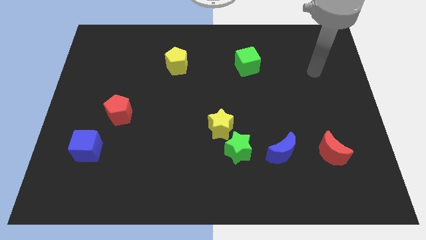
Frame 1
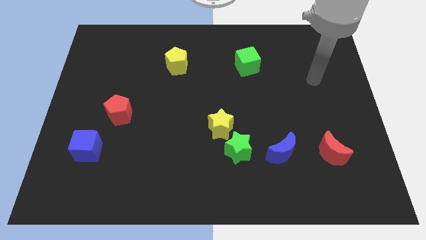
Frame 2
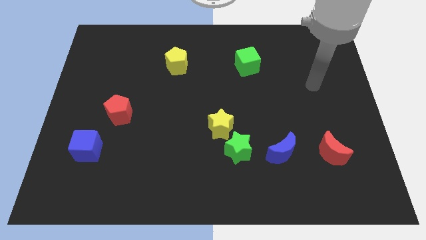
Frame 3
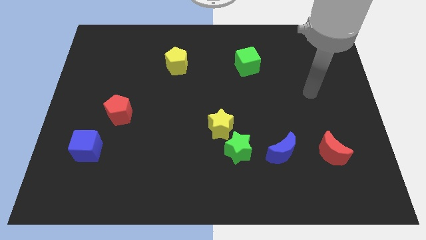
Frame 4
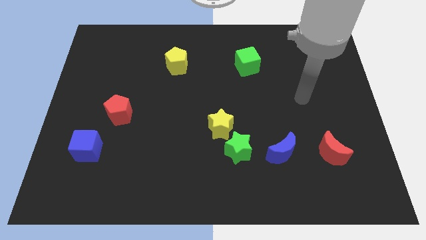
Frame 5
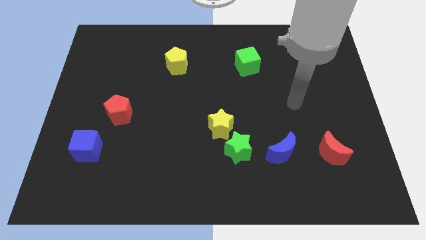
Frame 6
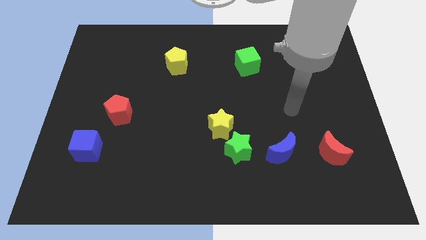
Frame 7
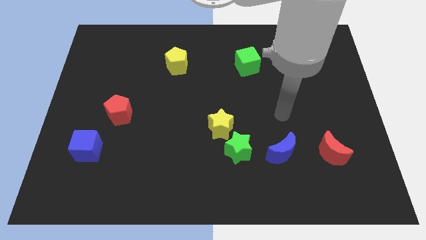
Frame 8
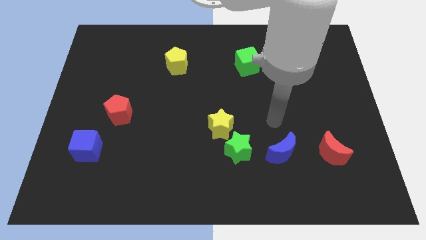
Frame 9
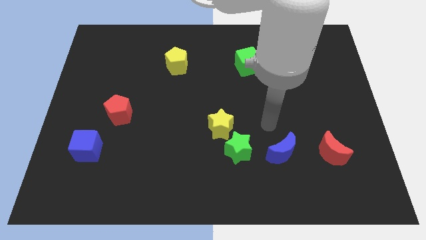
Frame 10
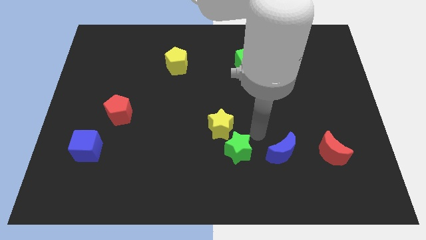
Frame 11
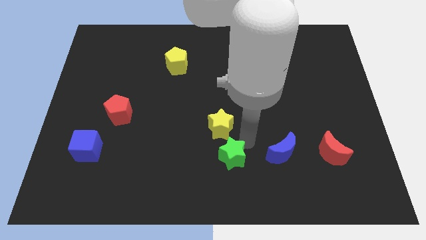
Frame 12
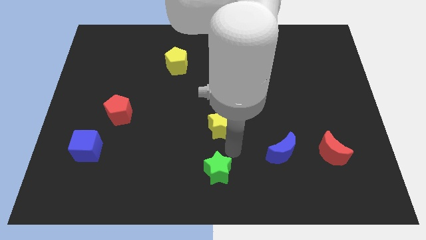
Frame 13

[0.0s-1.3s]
pull the yellow star apart from the green star

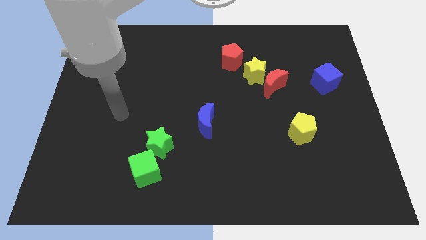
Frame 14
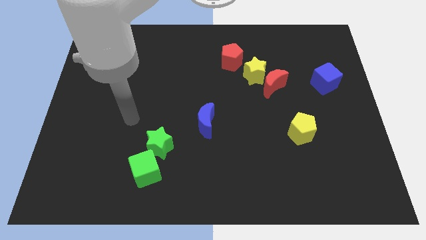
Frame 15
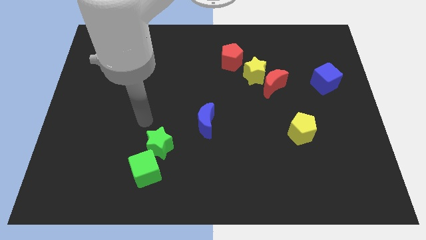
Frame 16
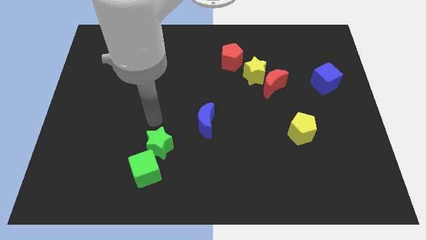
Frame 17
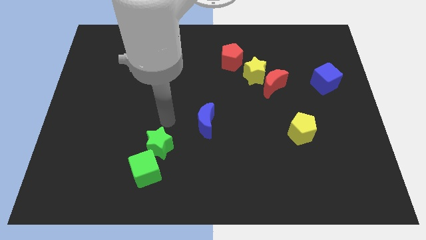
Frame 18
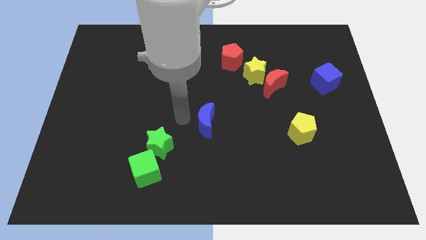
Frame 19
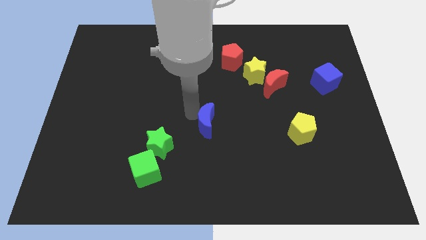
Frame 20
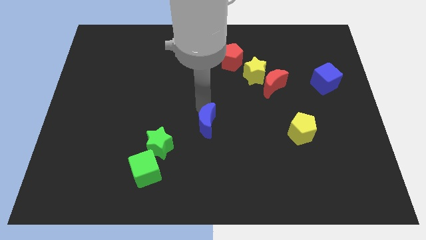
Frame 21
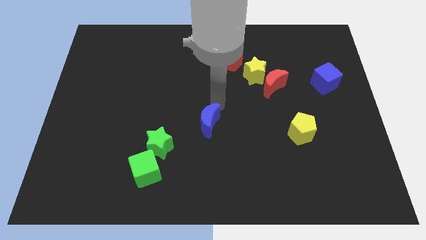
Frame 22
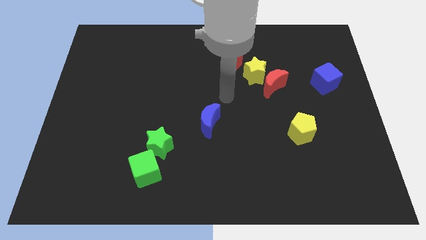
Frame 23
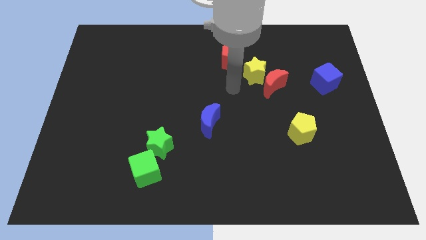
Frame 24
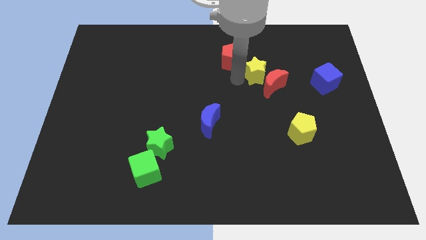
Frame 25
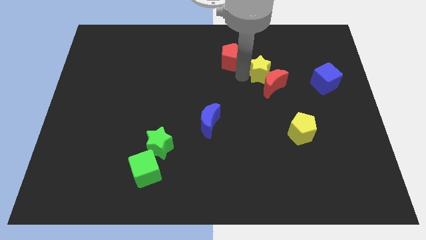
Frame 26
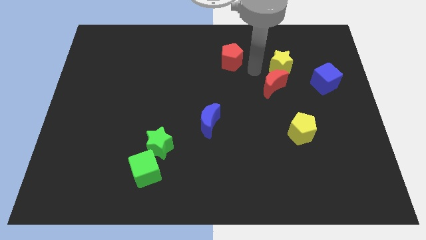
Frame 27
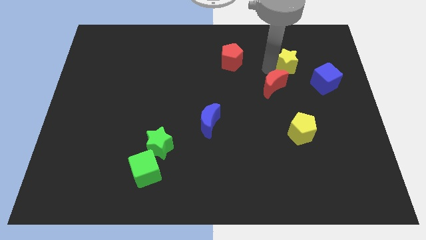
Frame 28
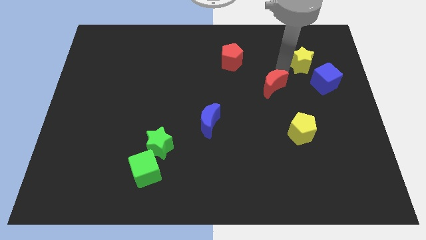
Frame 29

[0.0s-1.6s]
pull the red moon apart from the yellow star

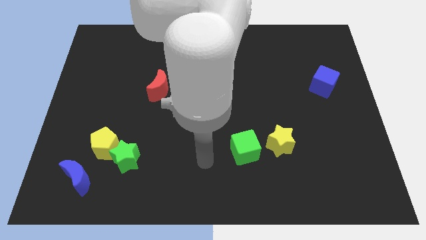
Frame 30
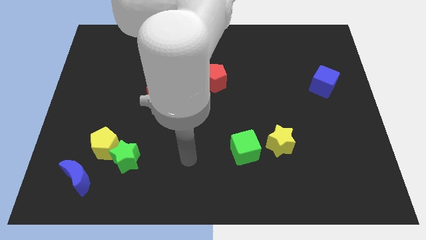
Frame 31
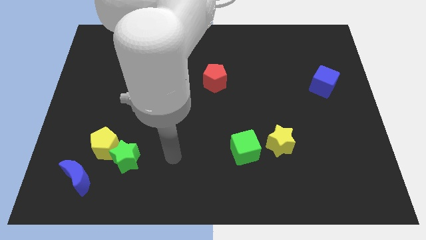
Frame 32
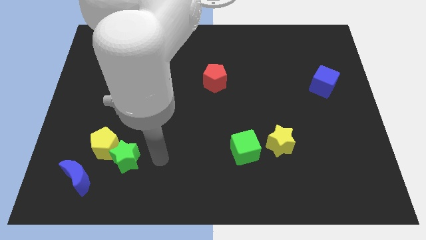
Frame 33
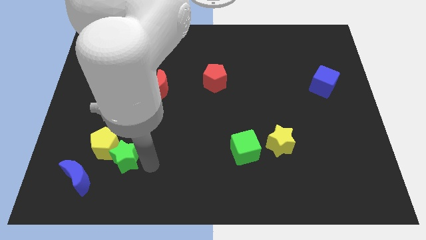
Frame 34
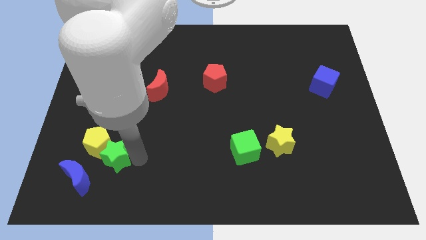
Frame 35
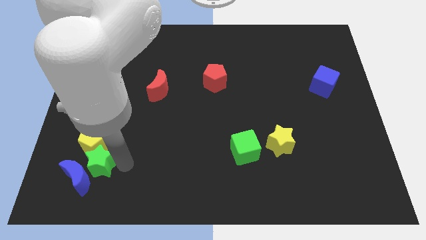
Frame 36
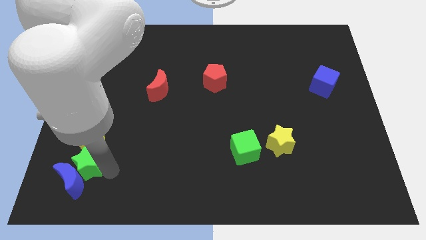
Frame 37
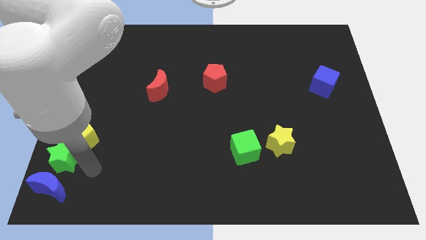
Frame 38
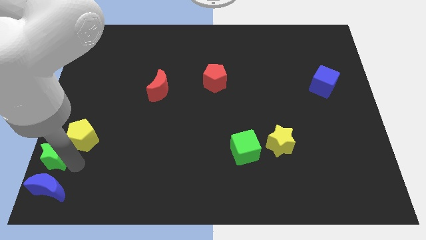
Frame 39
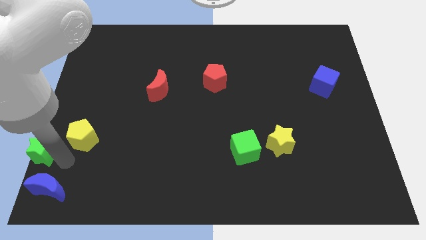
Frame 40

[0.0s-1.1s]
pull the yellow pentagon apart from the green star and blue moon

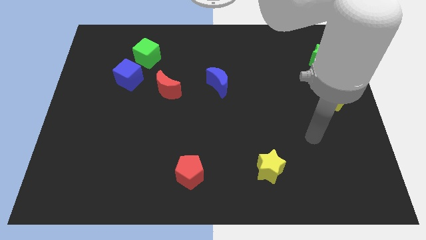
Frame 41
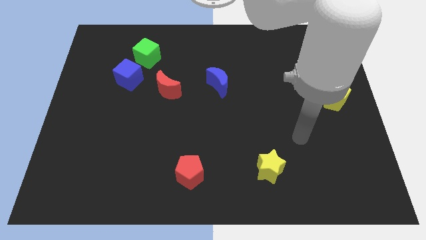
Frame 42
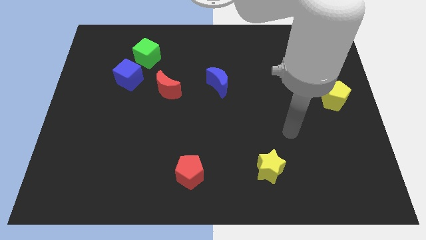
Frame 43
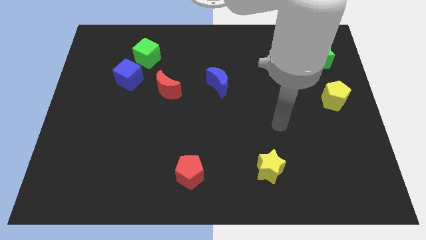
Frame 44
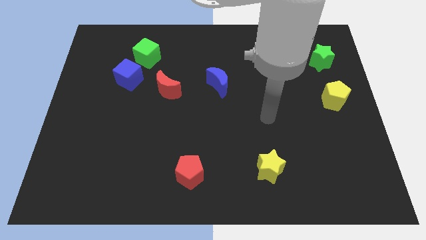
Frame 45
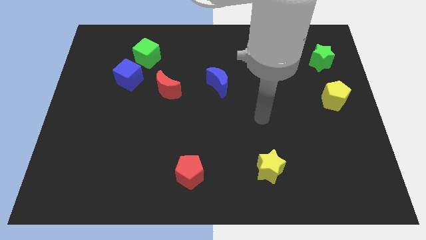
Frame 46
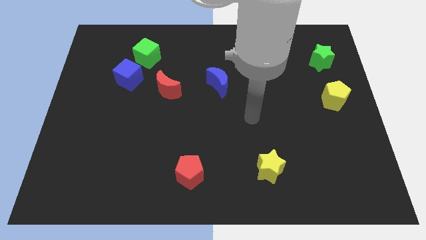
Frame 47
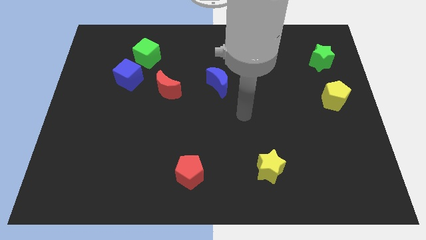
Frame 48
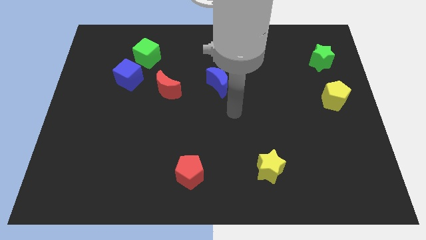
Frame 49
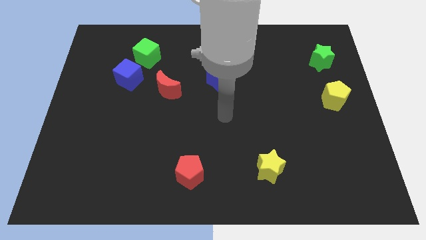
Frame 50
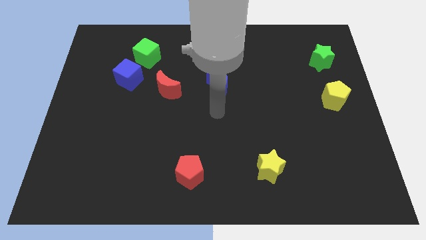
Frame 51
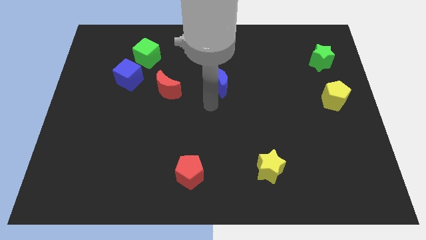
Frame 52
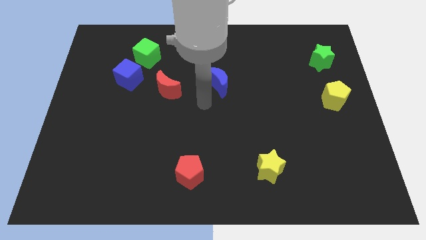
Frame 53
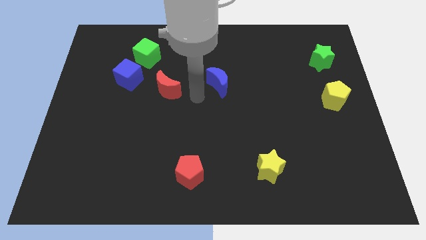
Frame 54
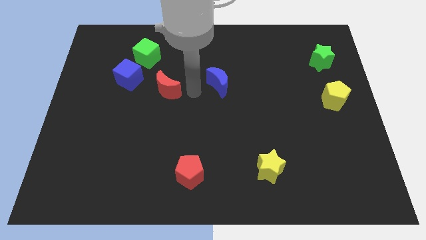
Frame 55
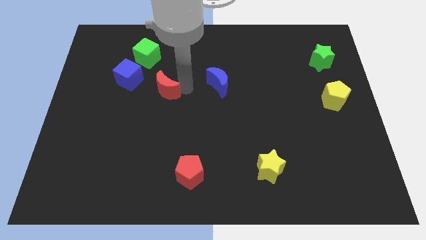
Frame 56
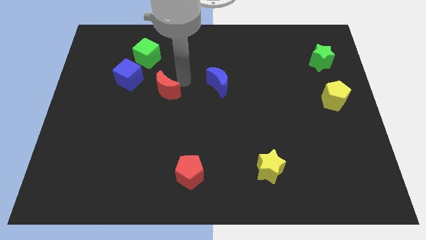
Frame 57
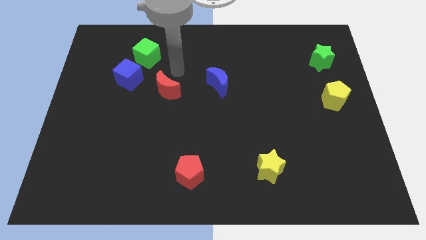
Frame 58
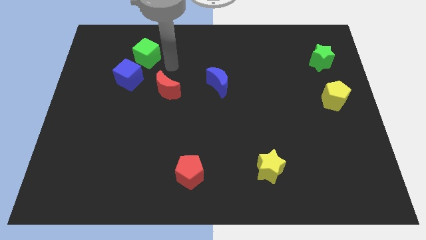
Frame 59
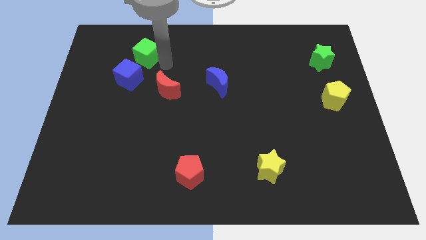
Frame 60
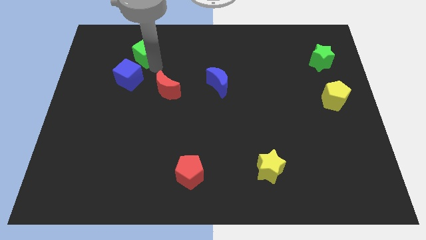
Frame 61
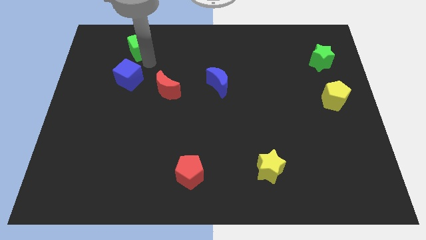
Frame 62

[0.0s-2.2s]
pull the blue cube apart from the green cube

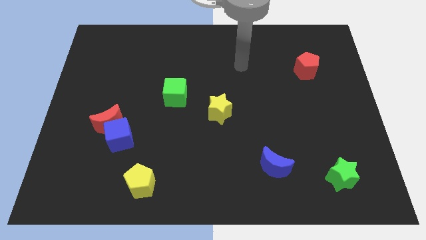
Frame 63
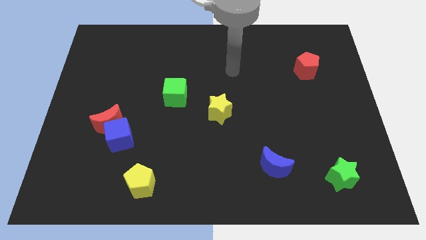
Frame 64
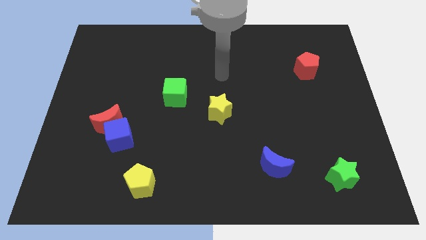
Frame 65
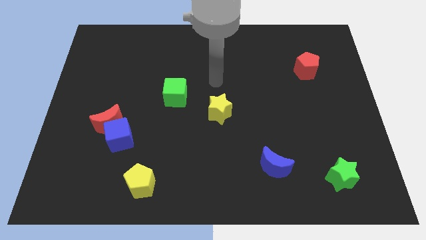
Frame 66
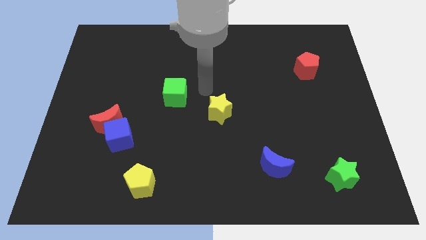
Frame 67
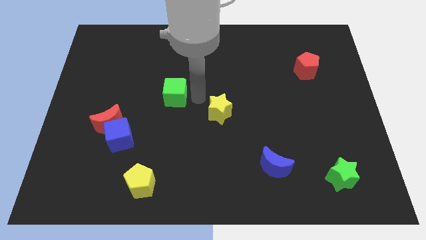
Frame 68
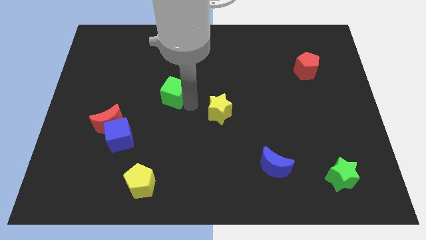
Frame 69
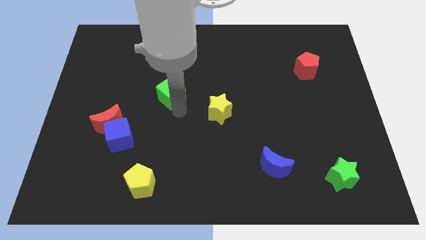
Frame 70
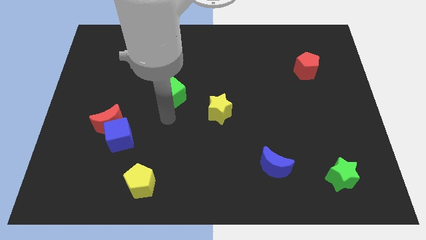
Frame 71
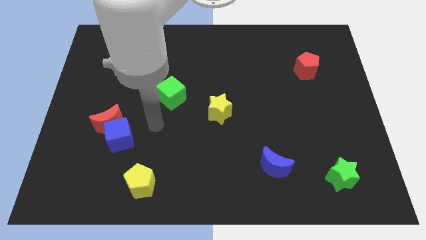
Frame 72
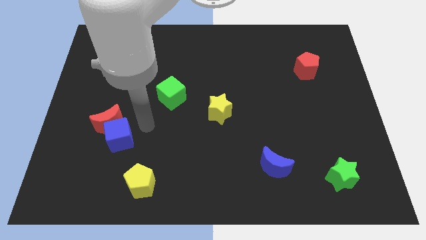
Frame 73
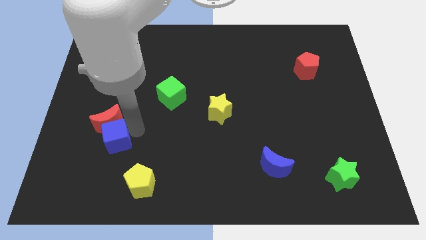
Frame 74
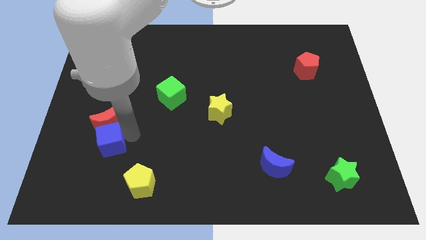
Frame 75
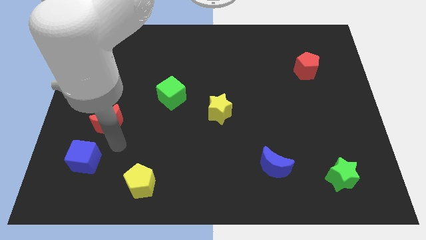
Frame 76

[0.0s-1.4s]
pull the red moon apart from the blue cube

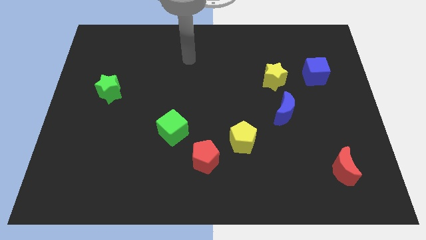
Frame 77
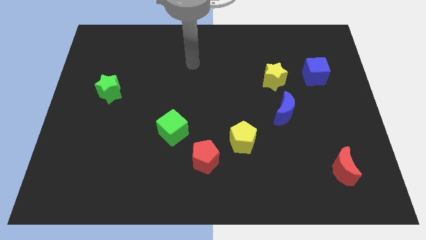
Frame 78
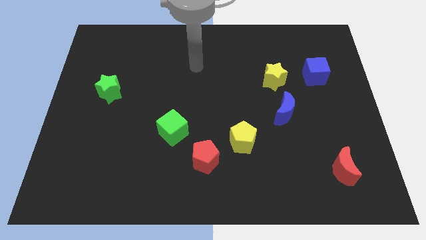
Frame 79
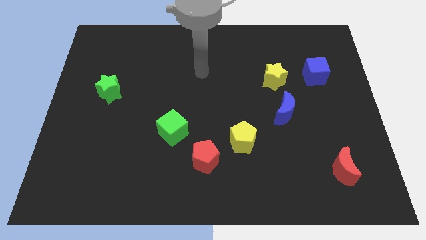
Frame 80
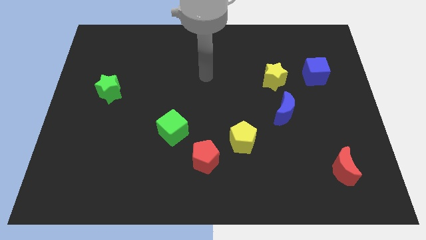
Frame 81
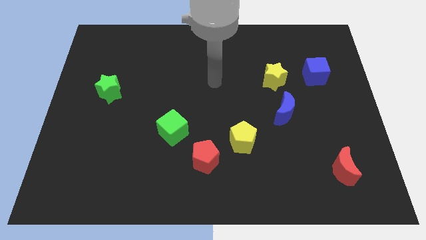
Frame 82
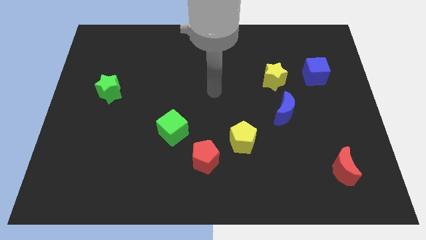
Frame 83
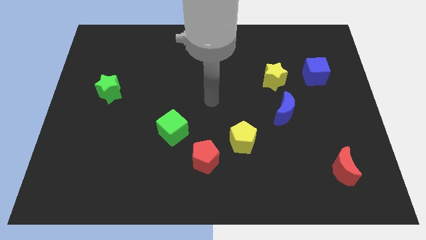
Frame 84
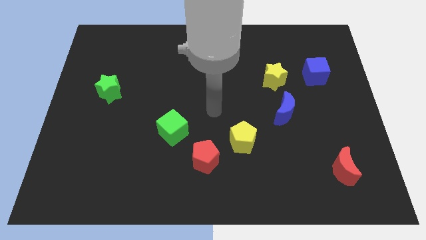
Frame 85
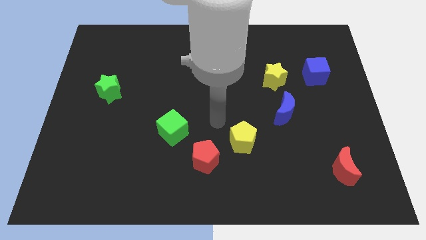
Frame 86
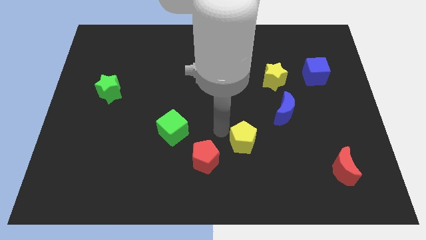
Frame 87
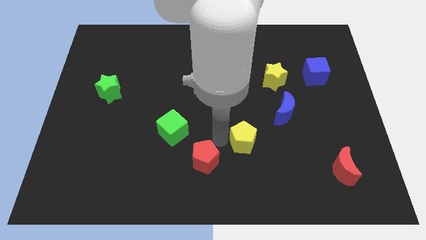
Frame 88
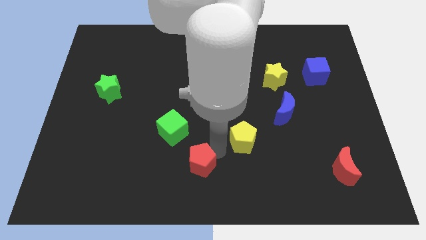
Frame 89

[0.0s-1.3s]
pull the yellow pentagon apart from the red pentagon

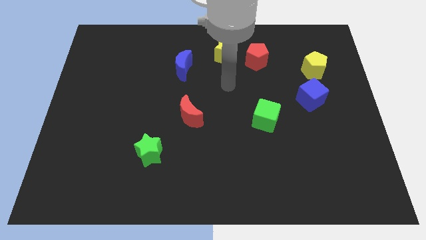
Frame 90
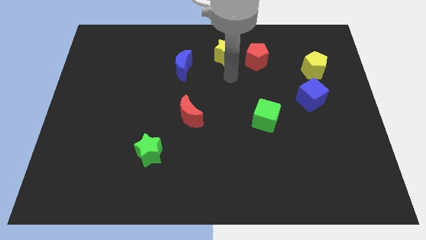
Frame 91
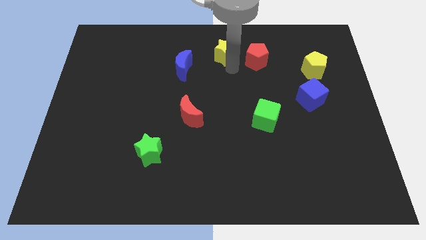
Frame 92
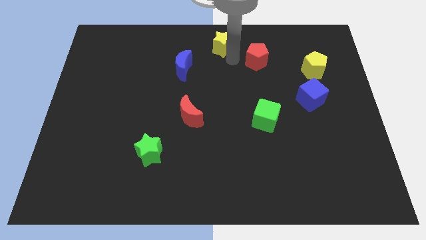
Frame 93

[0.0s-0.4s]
move the red pentagon away from the yellow star
